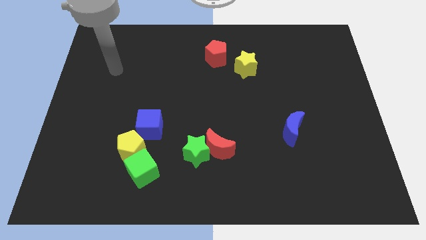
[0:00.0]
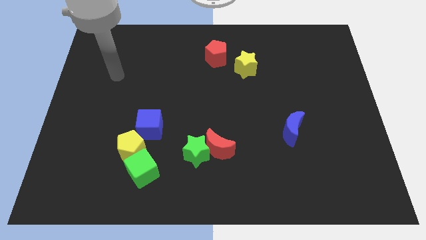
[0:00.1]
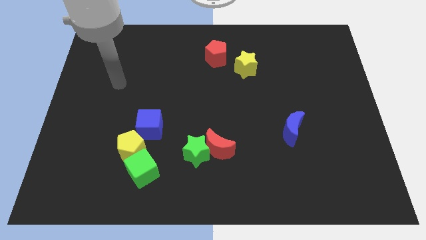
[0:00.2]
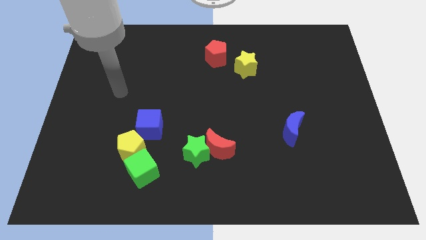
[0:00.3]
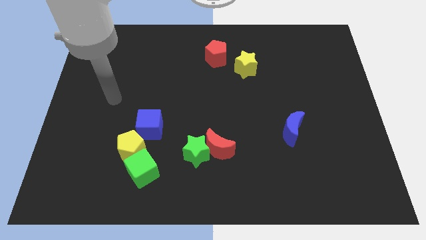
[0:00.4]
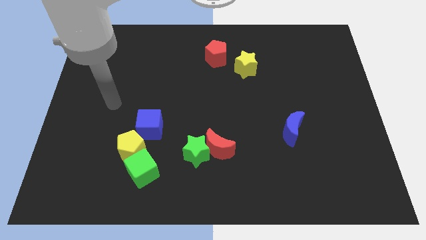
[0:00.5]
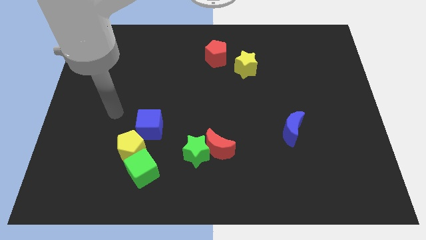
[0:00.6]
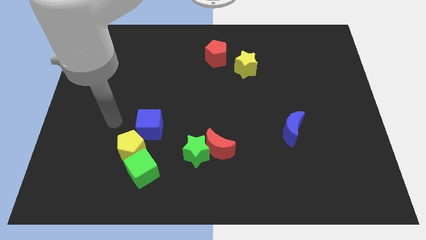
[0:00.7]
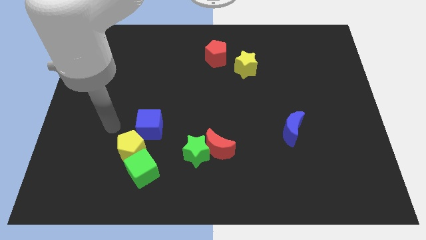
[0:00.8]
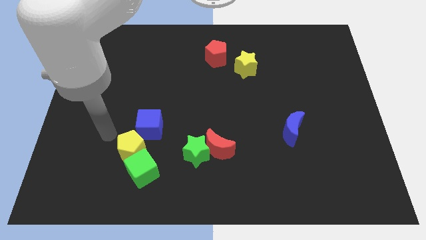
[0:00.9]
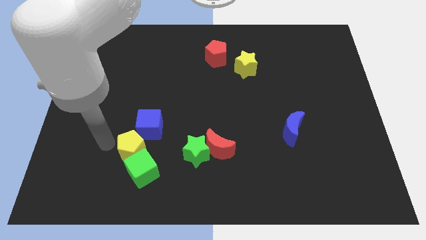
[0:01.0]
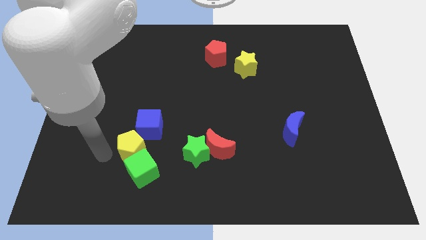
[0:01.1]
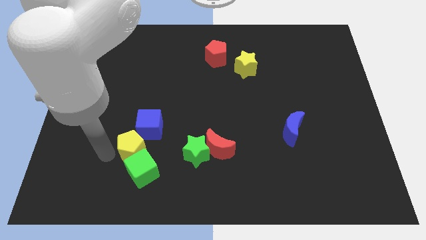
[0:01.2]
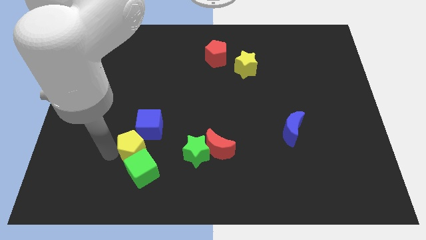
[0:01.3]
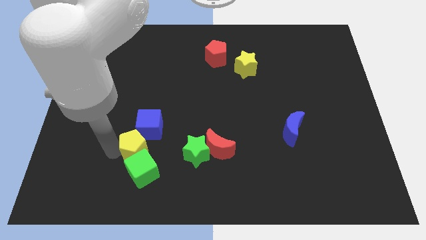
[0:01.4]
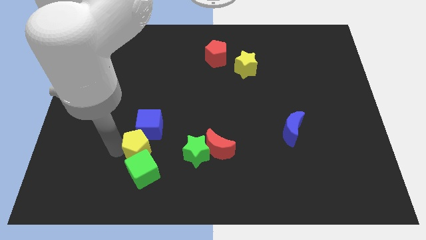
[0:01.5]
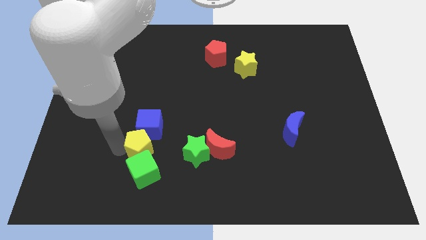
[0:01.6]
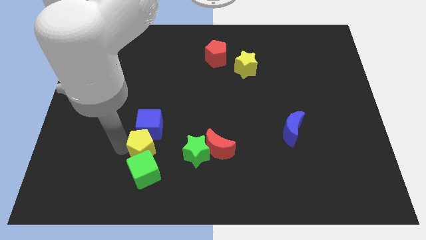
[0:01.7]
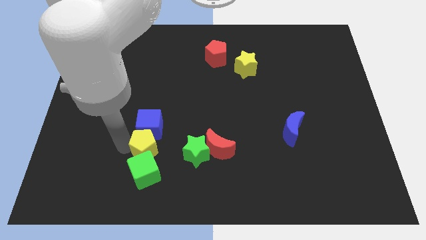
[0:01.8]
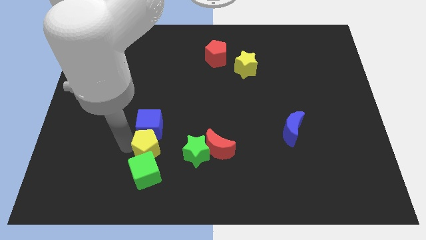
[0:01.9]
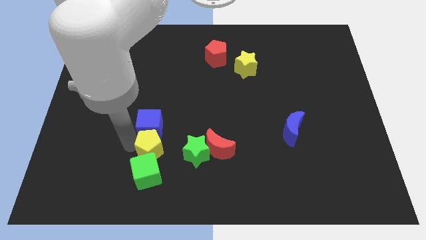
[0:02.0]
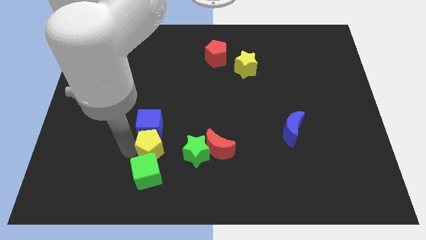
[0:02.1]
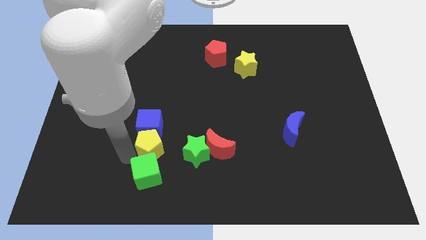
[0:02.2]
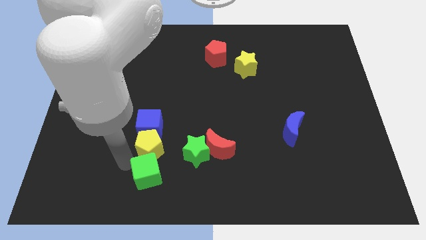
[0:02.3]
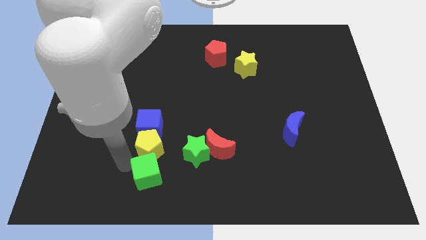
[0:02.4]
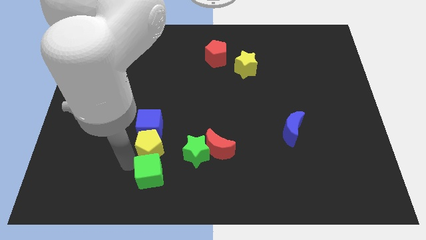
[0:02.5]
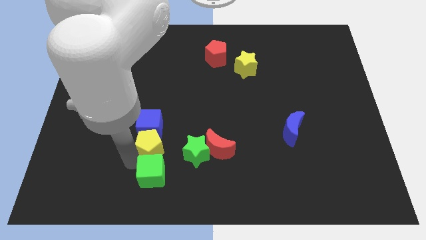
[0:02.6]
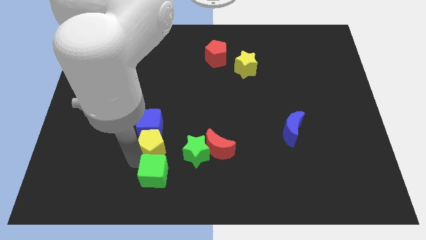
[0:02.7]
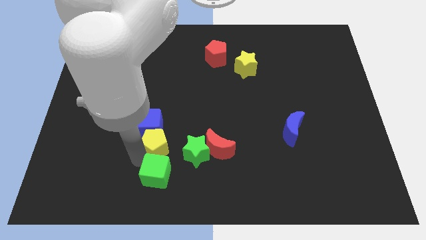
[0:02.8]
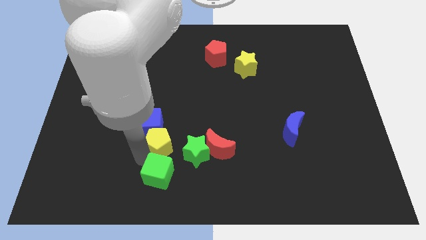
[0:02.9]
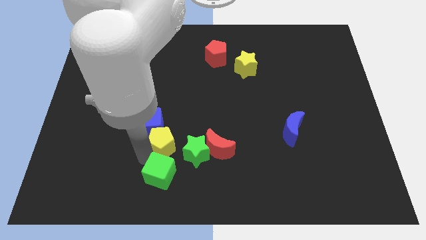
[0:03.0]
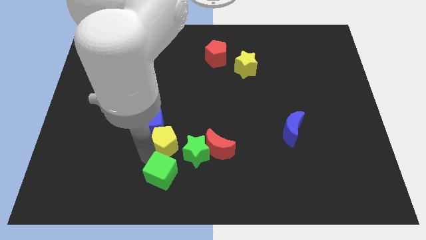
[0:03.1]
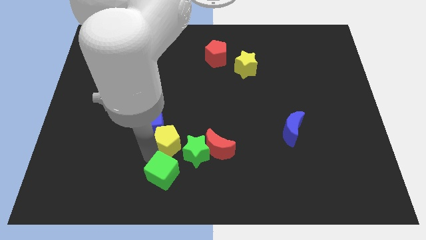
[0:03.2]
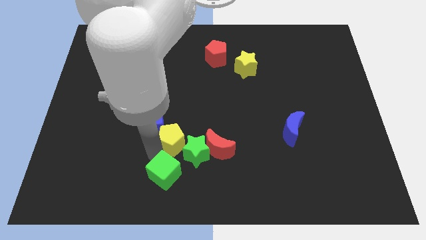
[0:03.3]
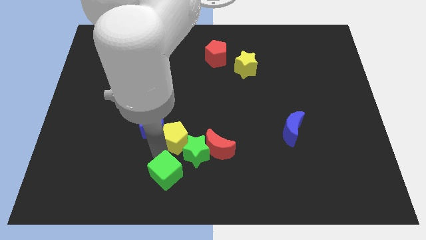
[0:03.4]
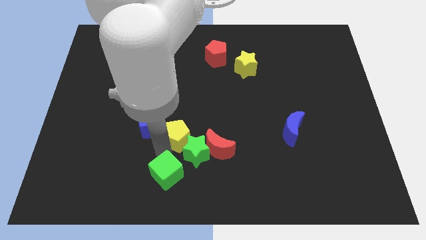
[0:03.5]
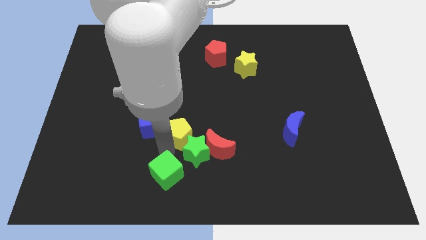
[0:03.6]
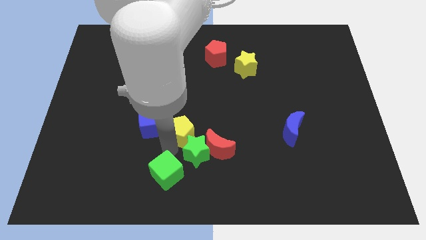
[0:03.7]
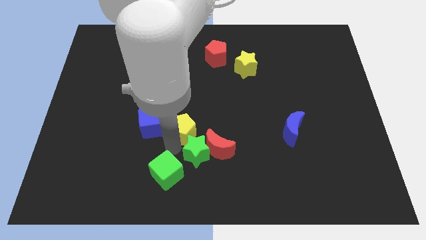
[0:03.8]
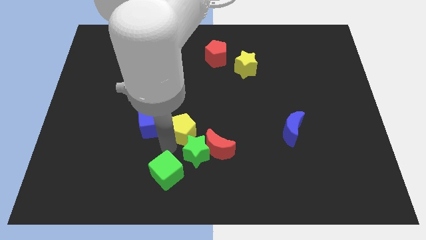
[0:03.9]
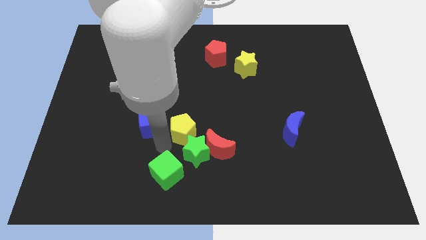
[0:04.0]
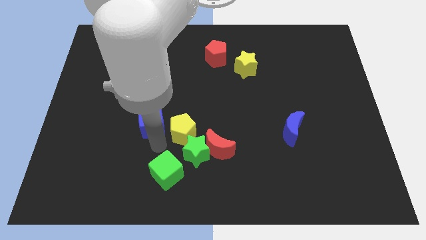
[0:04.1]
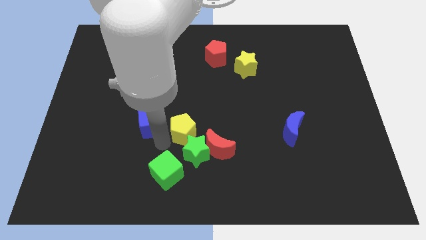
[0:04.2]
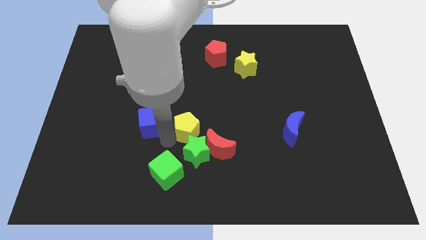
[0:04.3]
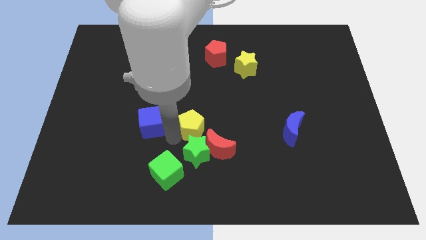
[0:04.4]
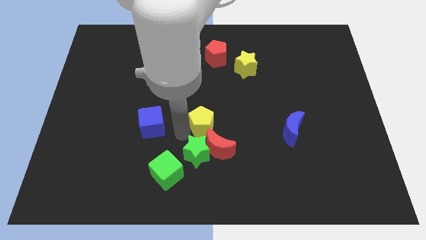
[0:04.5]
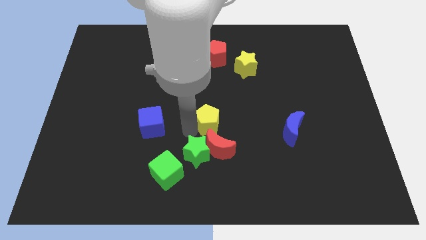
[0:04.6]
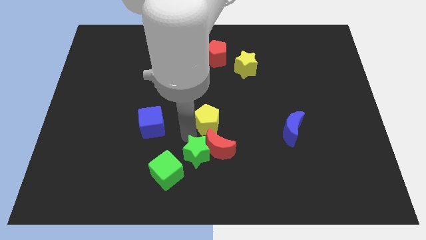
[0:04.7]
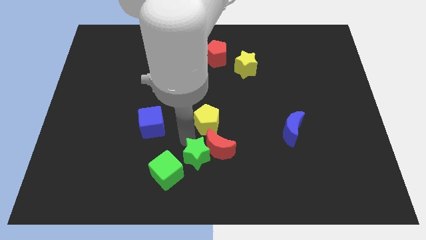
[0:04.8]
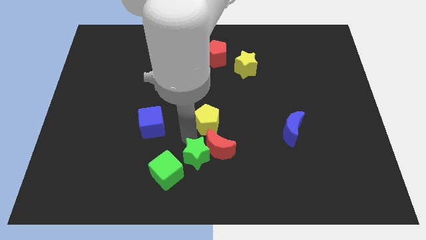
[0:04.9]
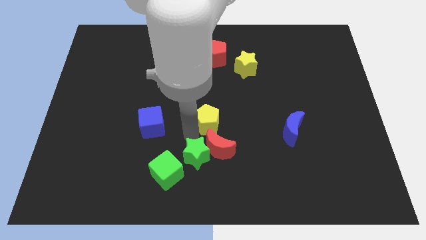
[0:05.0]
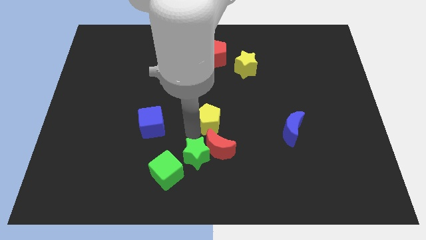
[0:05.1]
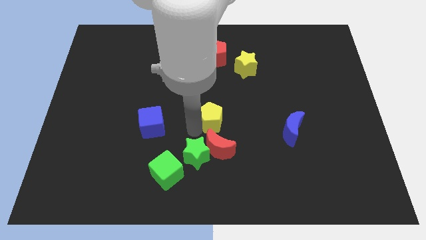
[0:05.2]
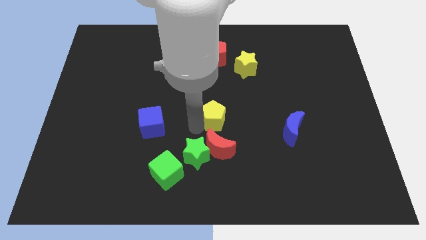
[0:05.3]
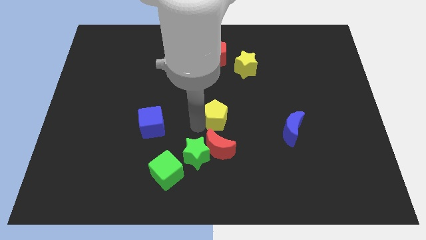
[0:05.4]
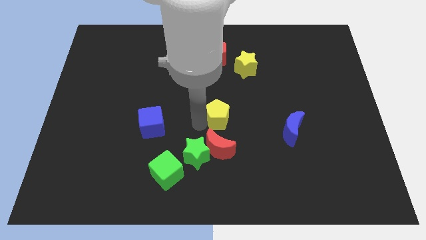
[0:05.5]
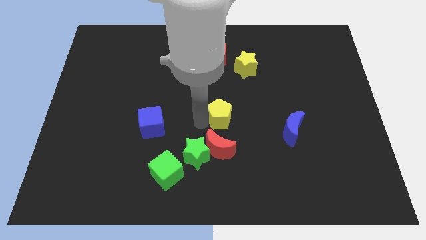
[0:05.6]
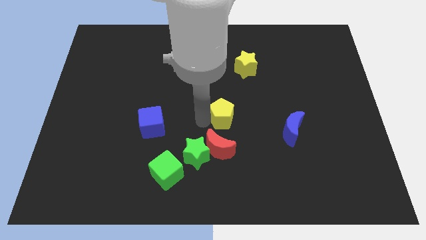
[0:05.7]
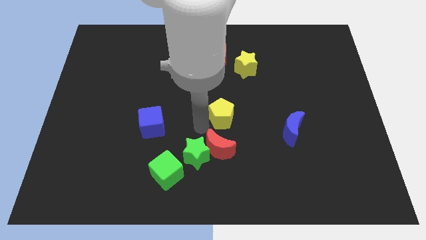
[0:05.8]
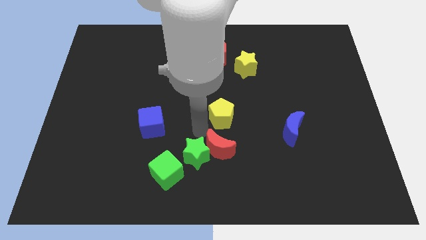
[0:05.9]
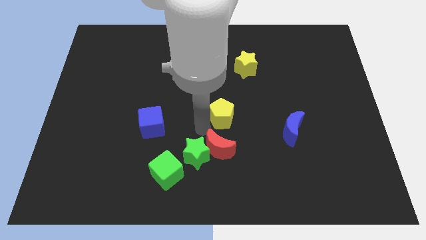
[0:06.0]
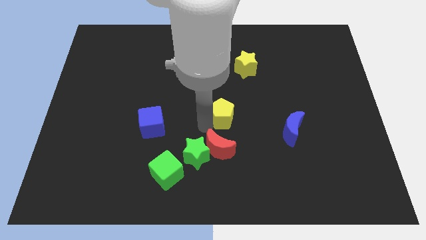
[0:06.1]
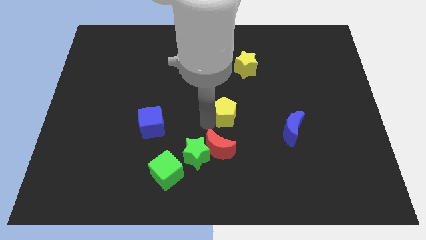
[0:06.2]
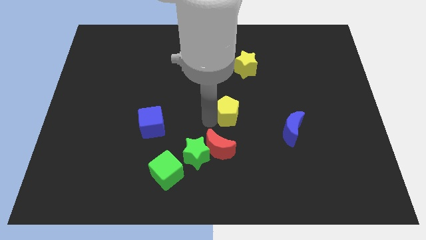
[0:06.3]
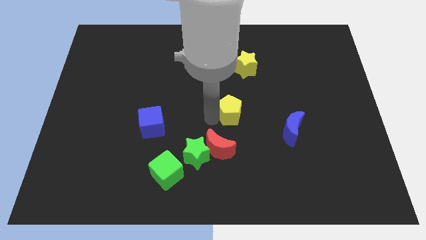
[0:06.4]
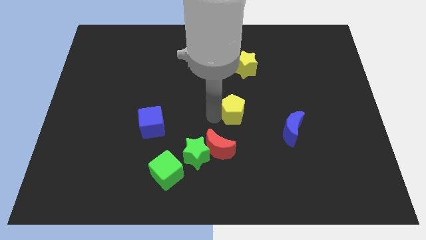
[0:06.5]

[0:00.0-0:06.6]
push the yellow pentagon to the bottom of the yellow star

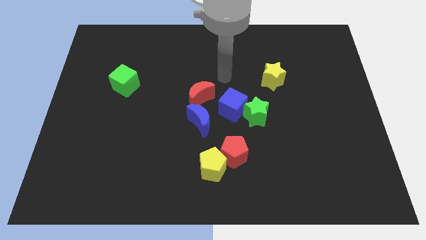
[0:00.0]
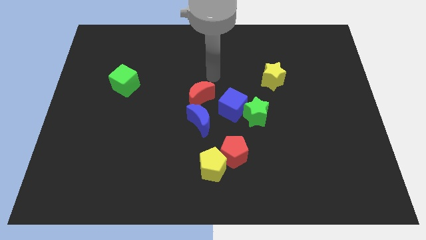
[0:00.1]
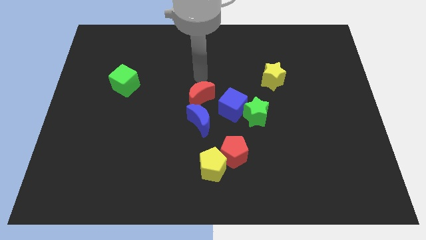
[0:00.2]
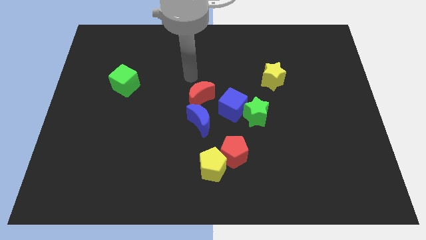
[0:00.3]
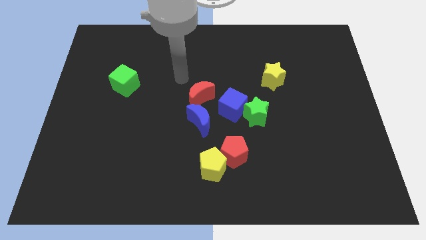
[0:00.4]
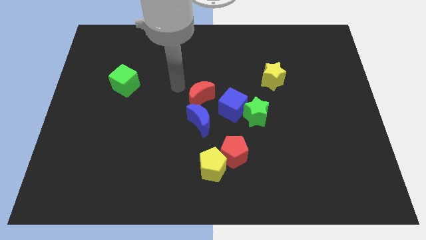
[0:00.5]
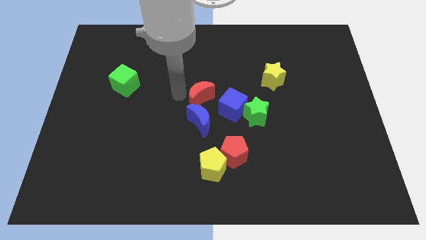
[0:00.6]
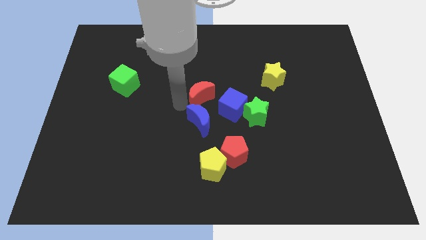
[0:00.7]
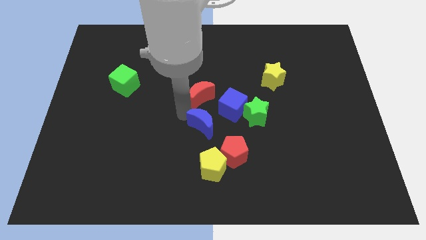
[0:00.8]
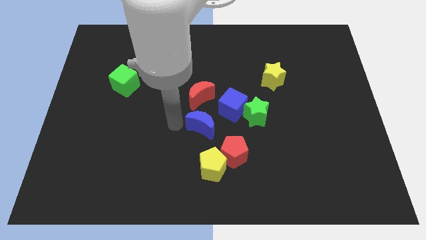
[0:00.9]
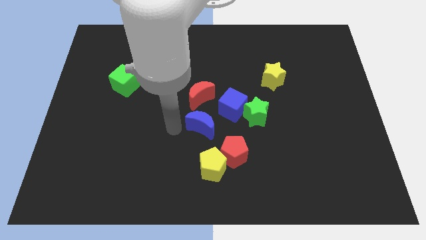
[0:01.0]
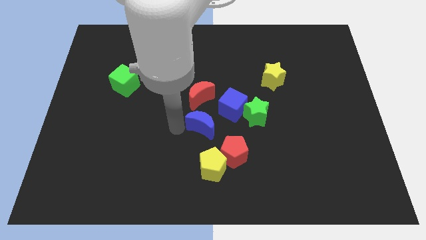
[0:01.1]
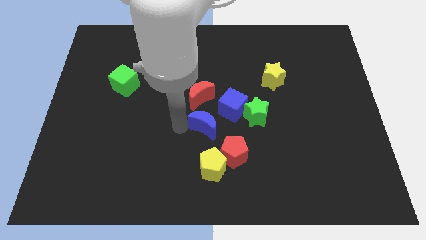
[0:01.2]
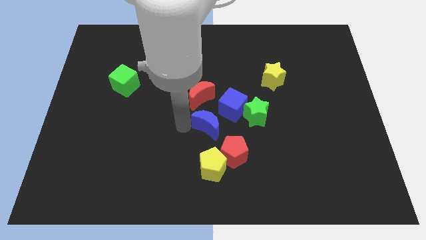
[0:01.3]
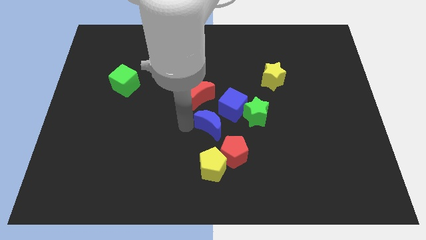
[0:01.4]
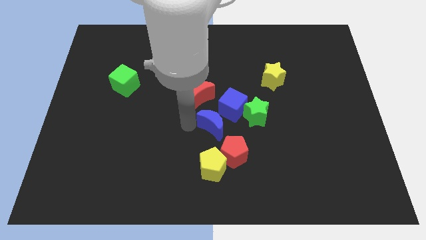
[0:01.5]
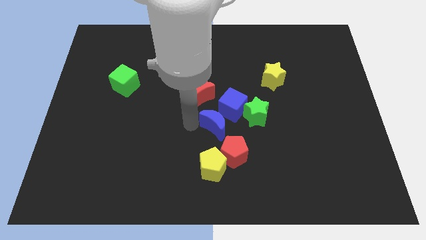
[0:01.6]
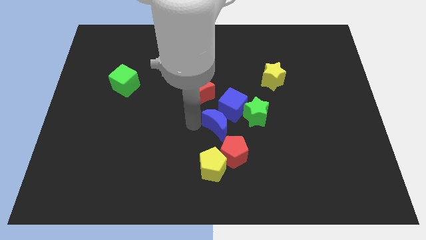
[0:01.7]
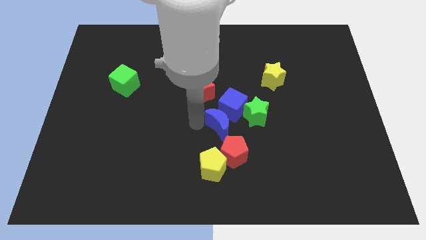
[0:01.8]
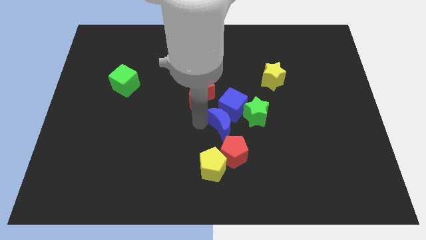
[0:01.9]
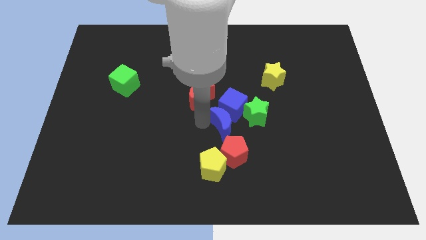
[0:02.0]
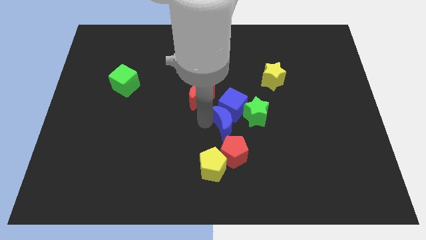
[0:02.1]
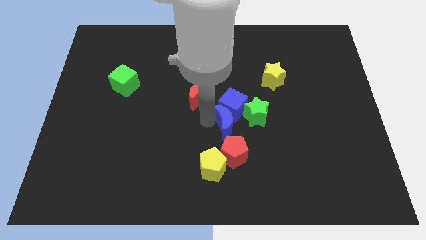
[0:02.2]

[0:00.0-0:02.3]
push the blue moon diagonally down and to the right of the blue cube
